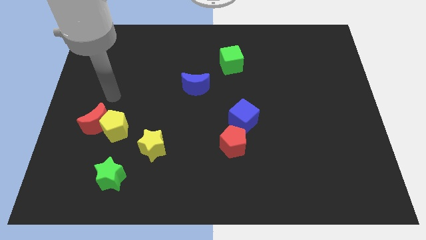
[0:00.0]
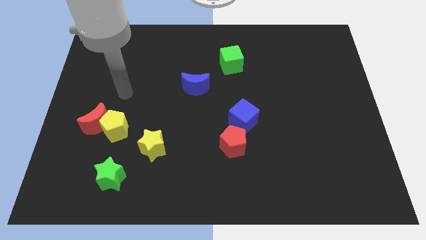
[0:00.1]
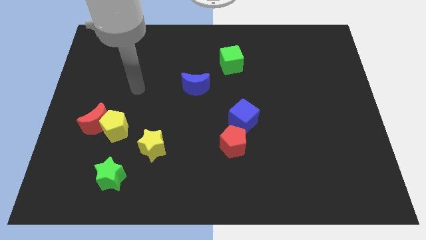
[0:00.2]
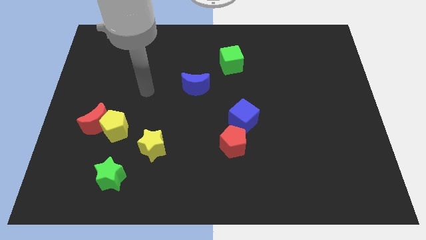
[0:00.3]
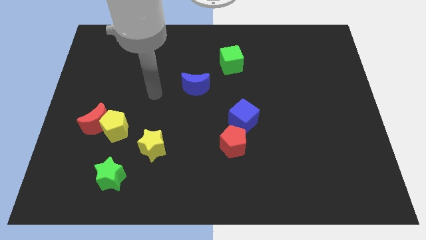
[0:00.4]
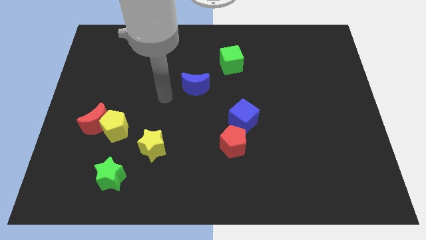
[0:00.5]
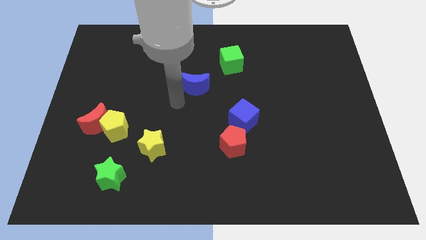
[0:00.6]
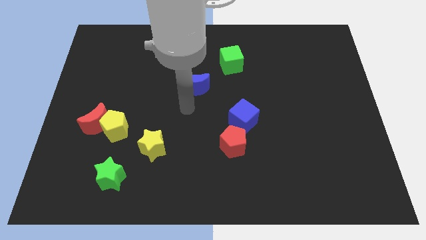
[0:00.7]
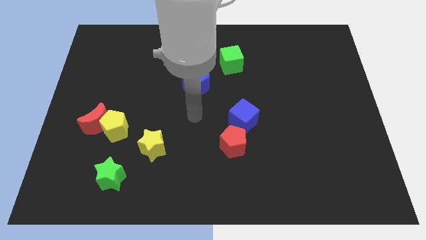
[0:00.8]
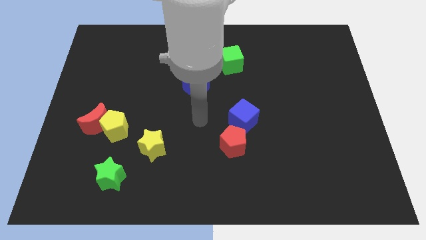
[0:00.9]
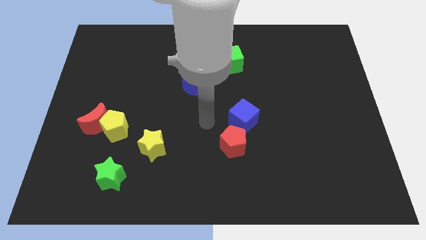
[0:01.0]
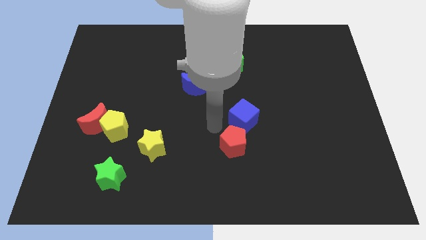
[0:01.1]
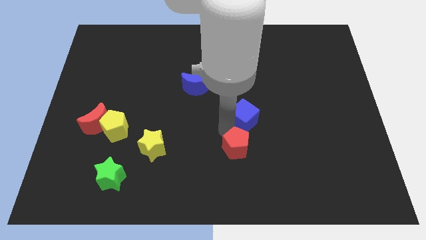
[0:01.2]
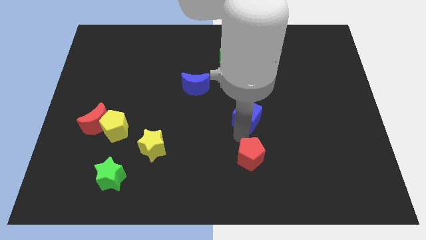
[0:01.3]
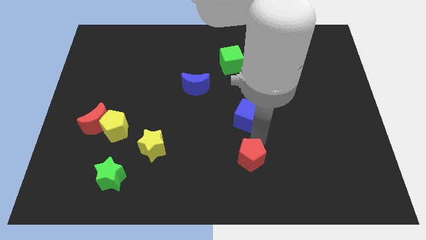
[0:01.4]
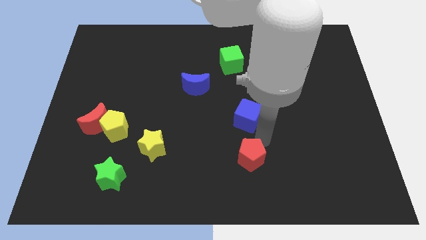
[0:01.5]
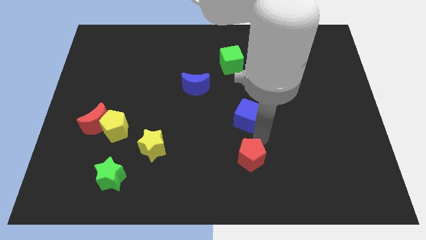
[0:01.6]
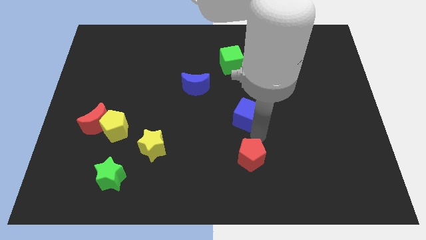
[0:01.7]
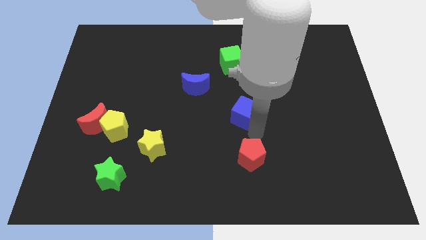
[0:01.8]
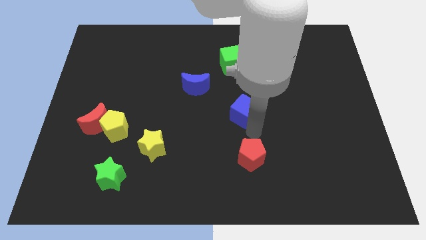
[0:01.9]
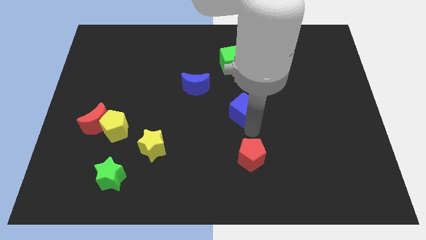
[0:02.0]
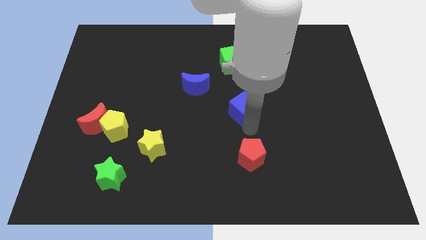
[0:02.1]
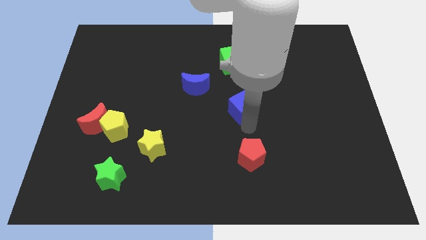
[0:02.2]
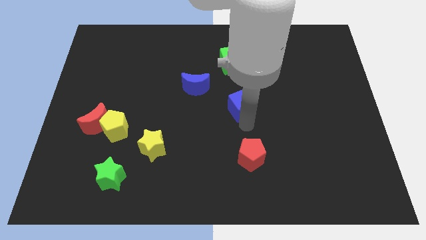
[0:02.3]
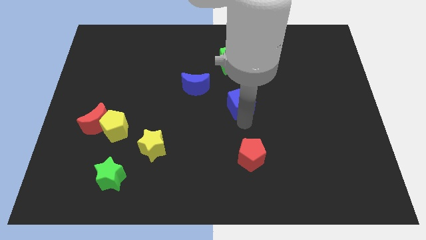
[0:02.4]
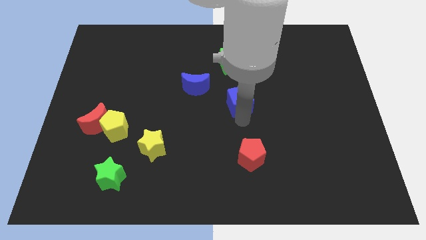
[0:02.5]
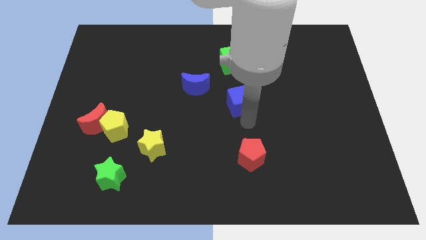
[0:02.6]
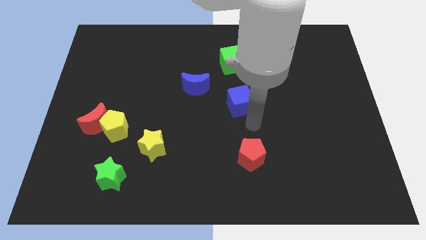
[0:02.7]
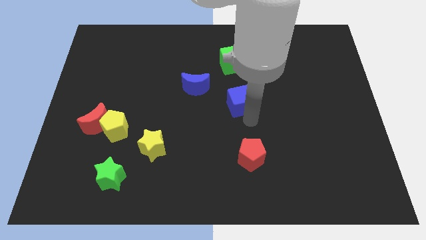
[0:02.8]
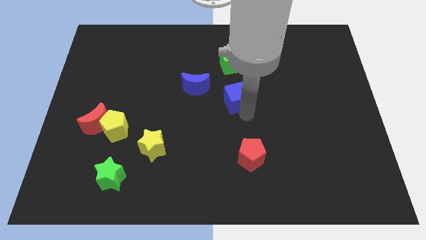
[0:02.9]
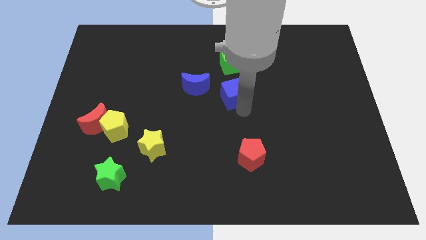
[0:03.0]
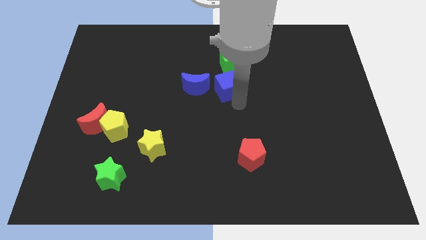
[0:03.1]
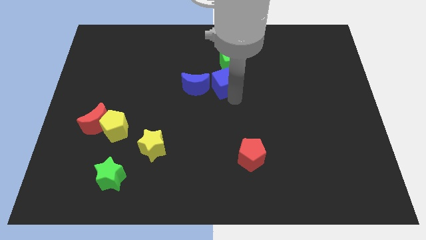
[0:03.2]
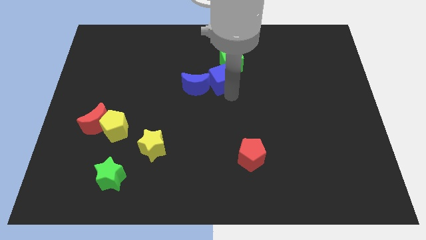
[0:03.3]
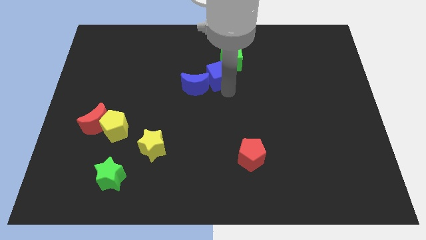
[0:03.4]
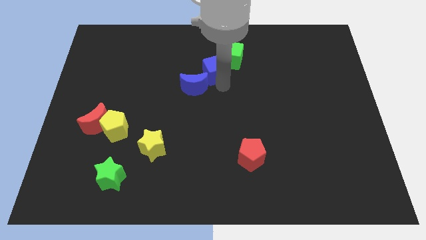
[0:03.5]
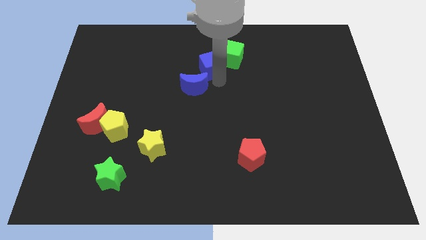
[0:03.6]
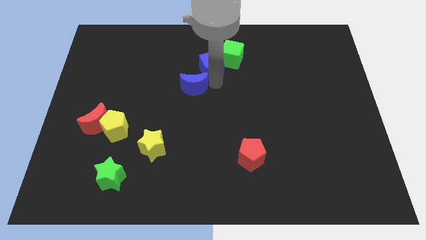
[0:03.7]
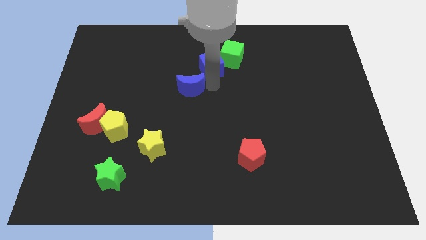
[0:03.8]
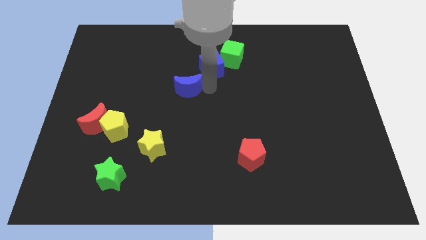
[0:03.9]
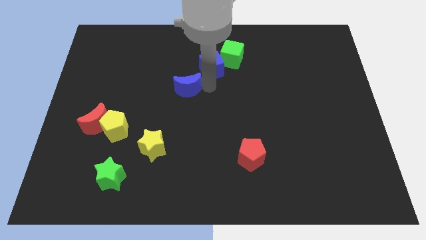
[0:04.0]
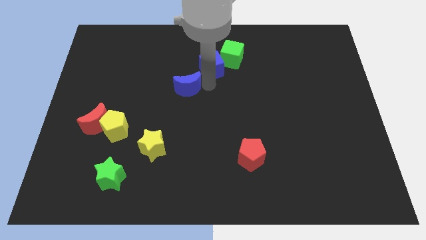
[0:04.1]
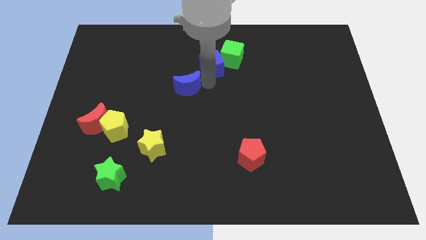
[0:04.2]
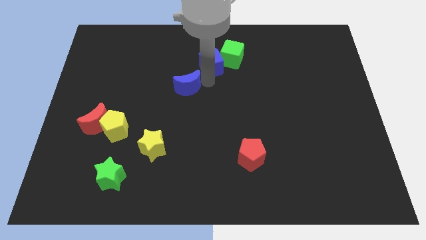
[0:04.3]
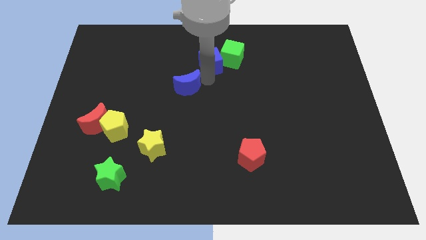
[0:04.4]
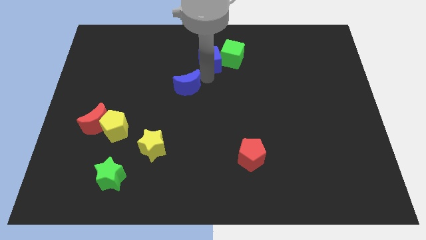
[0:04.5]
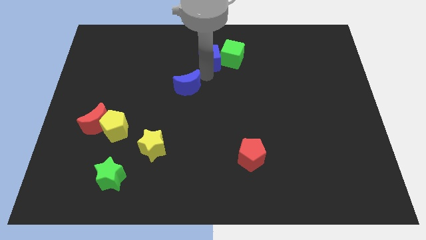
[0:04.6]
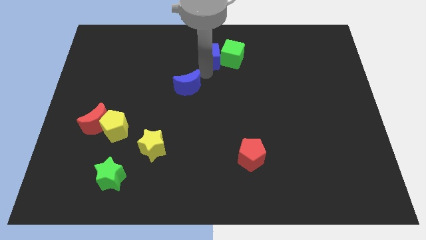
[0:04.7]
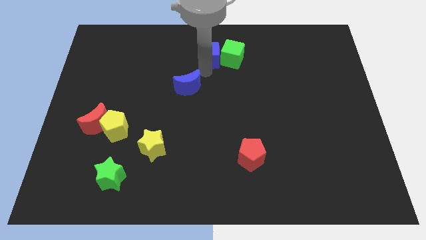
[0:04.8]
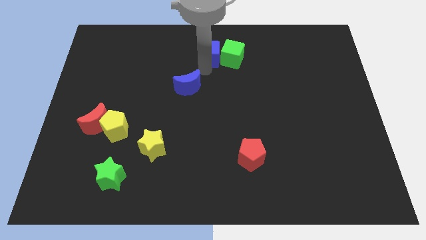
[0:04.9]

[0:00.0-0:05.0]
slide the blue cube to the top

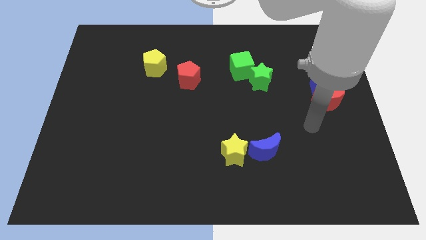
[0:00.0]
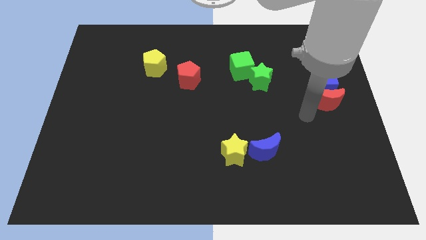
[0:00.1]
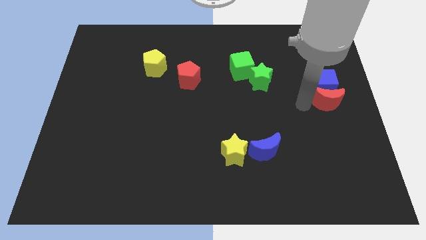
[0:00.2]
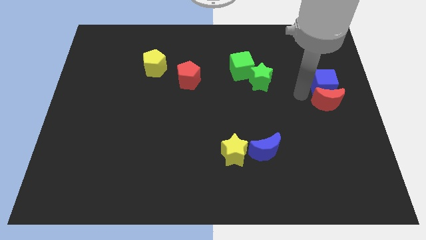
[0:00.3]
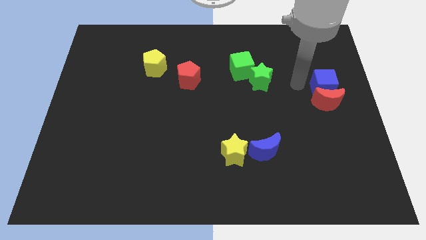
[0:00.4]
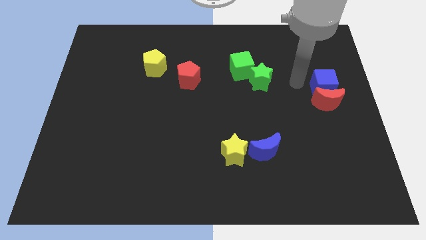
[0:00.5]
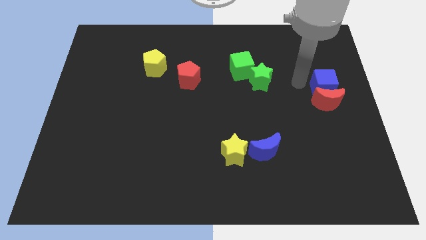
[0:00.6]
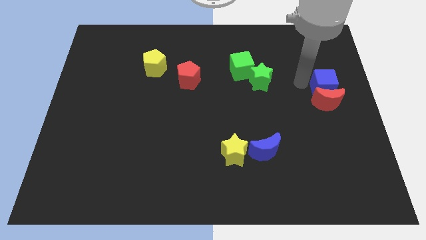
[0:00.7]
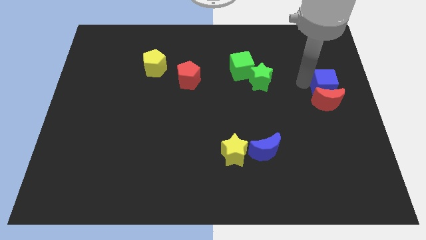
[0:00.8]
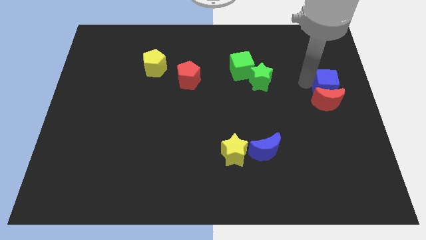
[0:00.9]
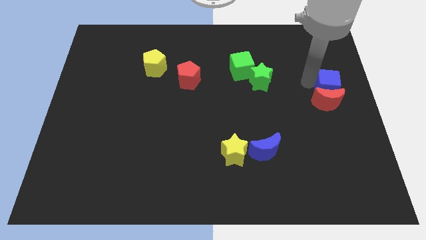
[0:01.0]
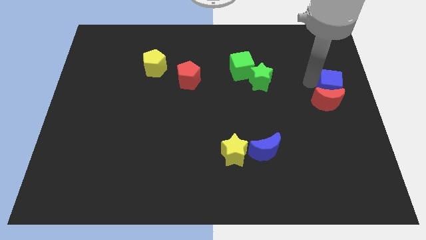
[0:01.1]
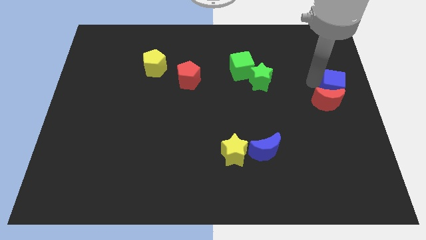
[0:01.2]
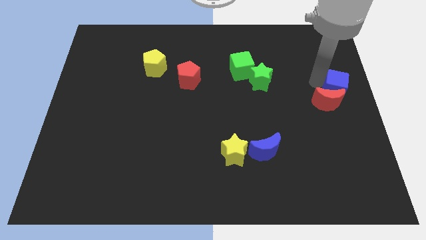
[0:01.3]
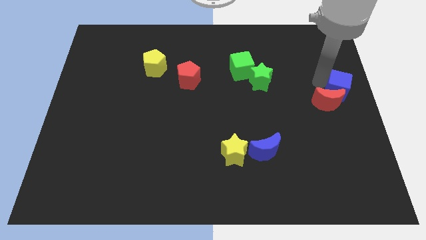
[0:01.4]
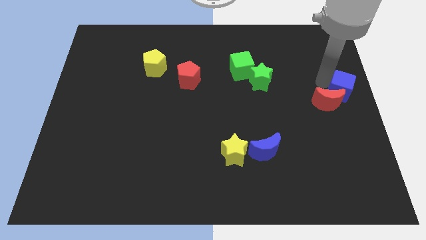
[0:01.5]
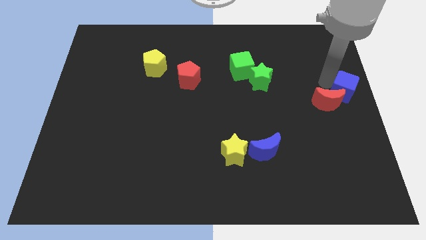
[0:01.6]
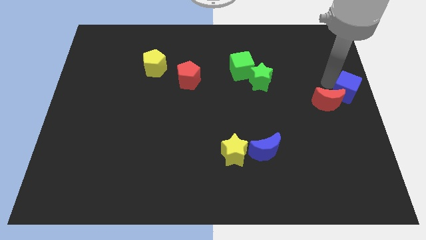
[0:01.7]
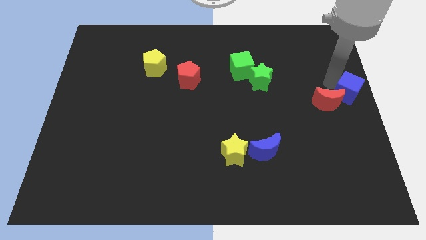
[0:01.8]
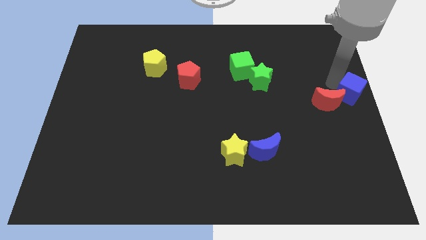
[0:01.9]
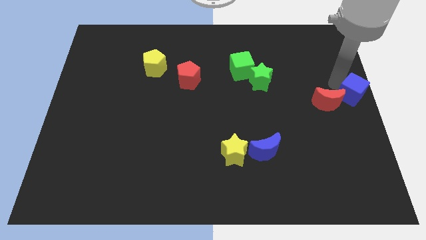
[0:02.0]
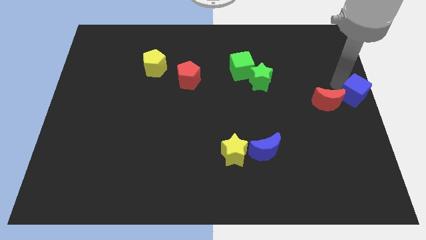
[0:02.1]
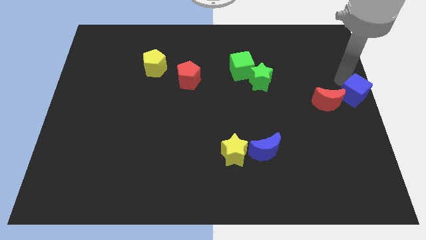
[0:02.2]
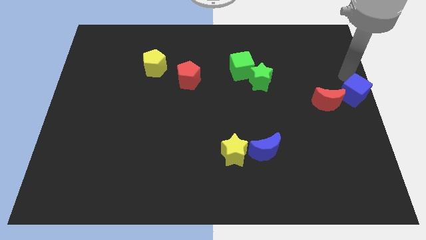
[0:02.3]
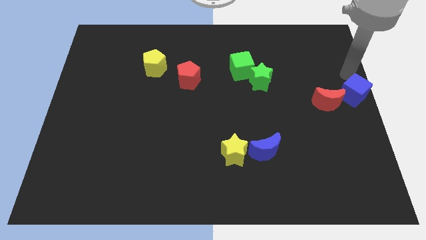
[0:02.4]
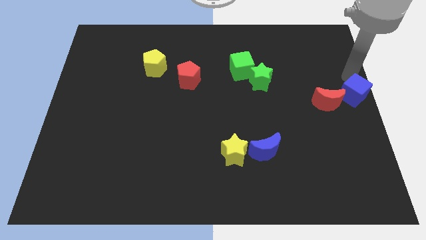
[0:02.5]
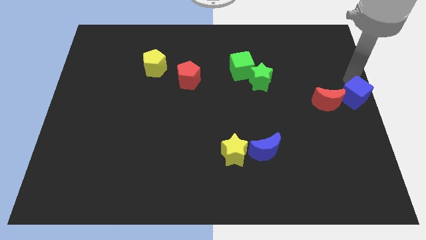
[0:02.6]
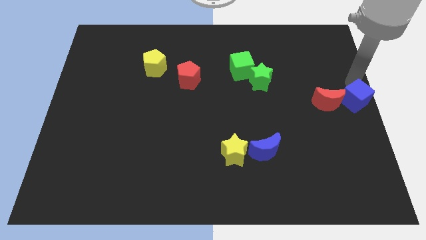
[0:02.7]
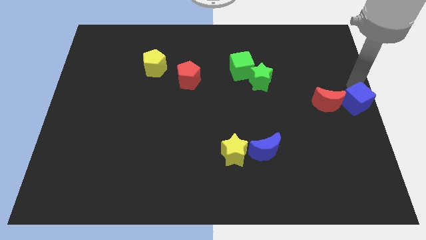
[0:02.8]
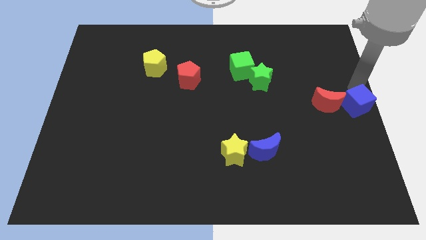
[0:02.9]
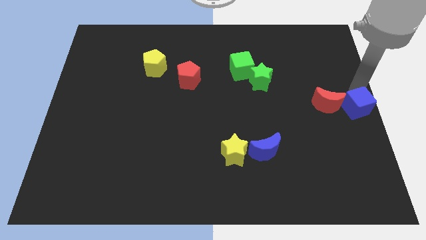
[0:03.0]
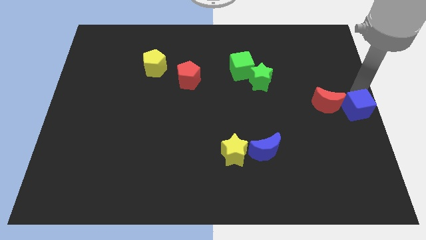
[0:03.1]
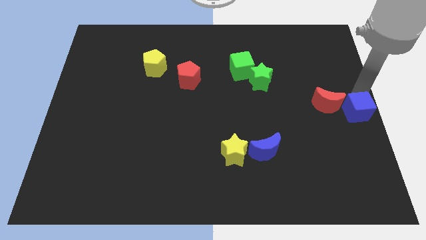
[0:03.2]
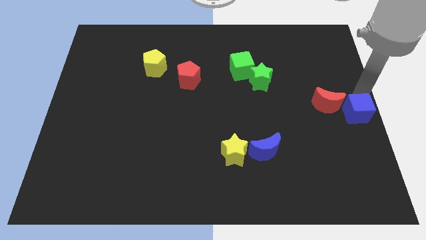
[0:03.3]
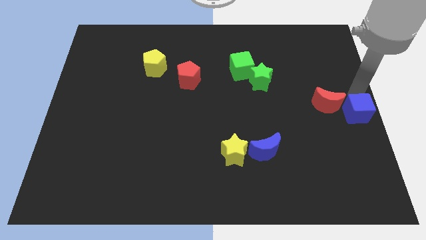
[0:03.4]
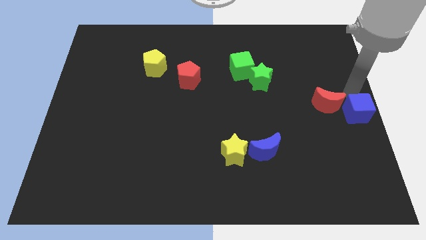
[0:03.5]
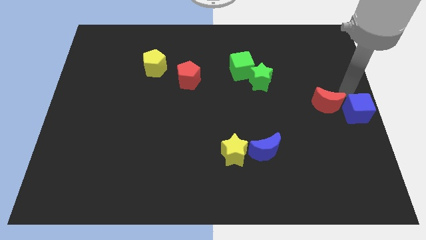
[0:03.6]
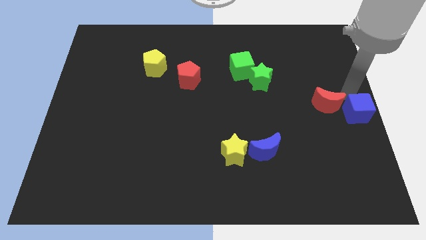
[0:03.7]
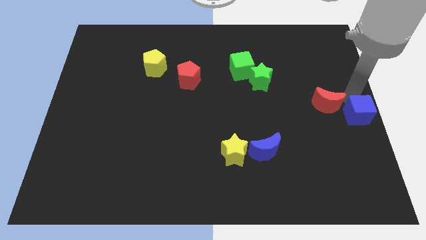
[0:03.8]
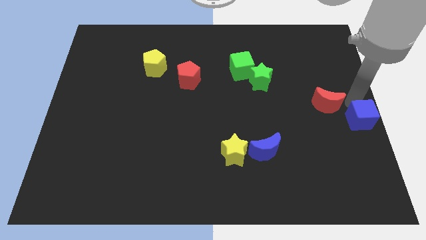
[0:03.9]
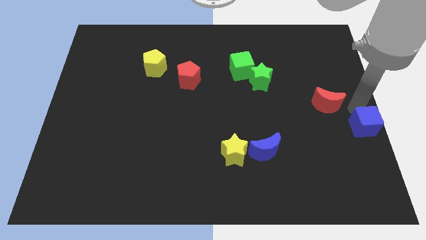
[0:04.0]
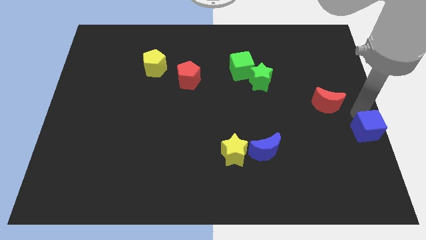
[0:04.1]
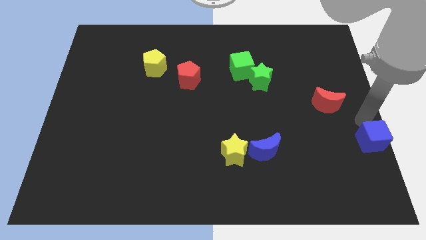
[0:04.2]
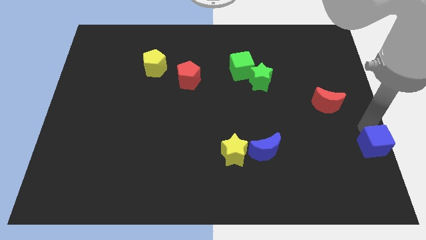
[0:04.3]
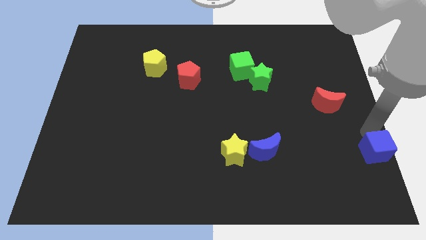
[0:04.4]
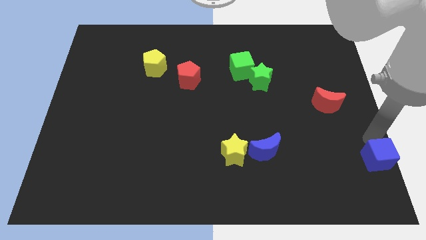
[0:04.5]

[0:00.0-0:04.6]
slide the blue cube to the bottom right of the board
